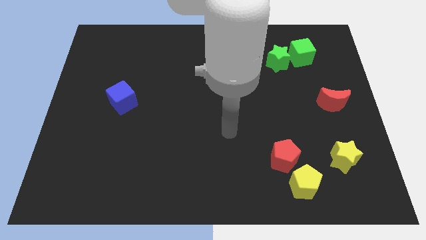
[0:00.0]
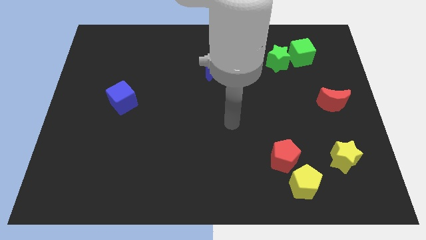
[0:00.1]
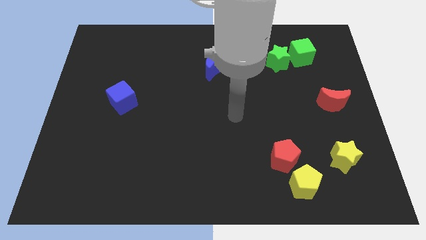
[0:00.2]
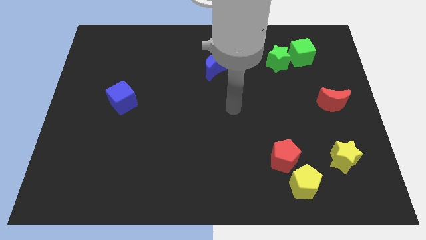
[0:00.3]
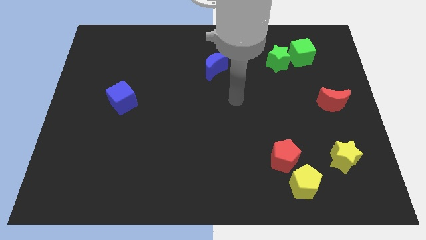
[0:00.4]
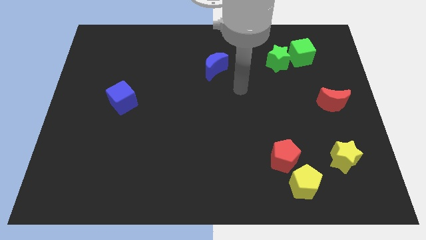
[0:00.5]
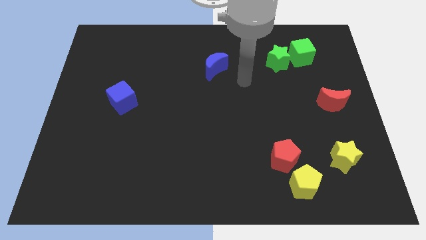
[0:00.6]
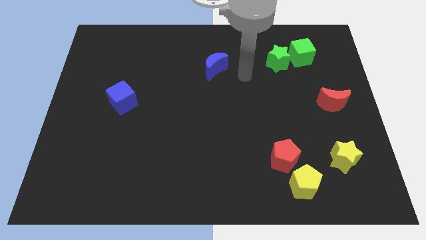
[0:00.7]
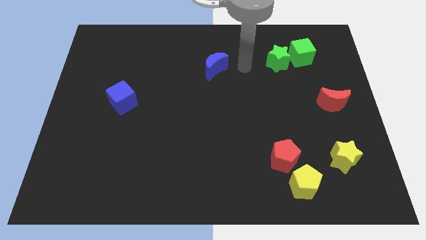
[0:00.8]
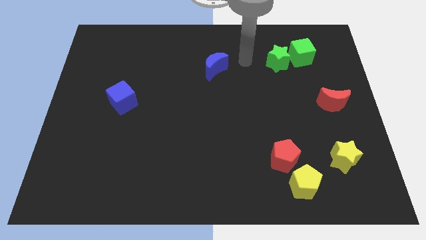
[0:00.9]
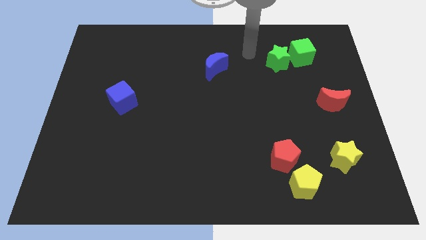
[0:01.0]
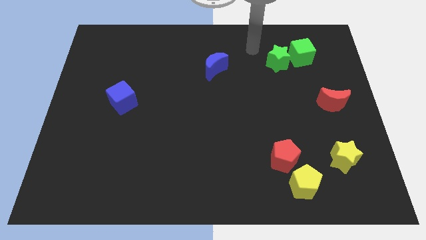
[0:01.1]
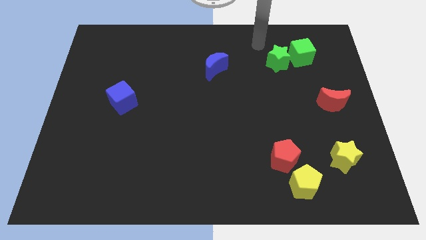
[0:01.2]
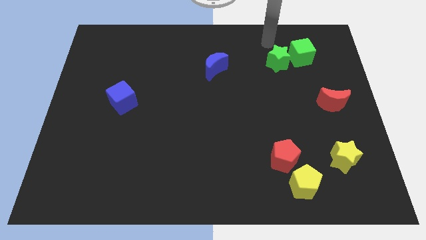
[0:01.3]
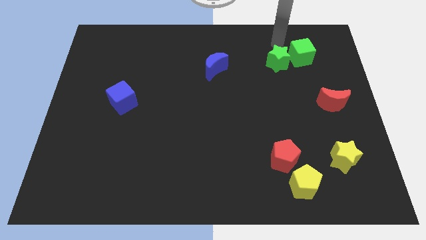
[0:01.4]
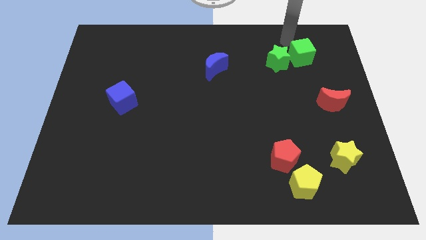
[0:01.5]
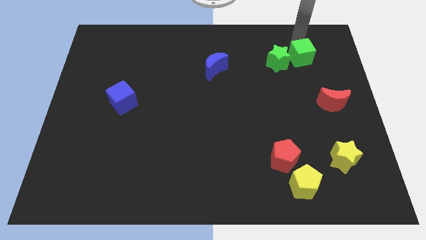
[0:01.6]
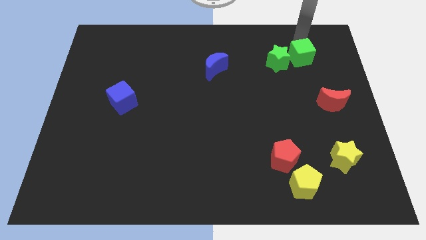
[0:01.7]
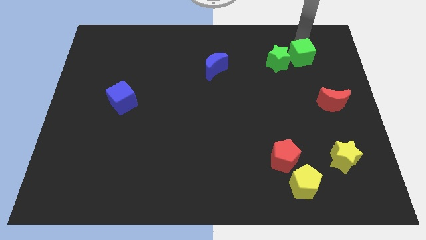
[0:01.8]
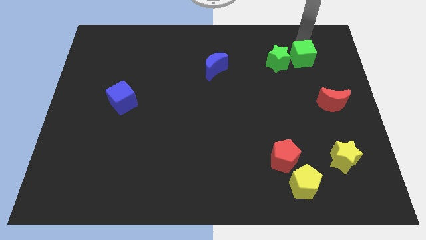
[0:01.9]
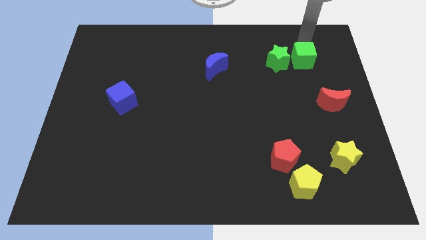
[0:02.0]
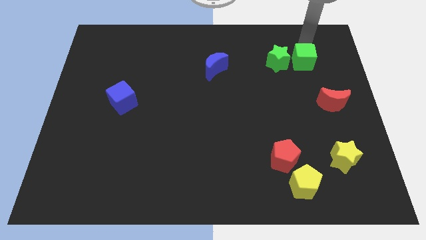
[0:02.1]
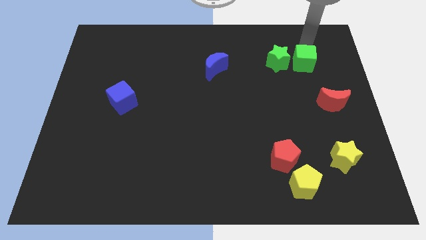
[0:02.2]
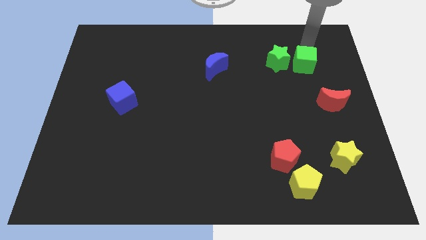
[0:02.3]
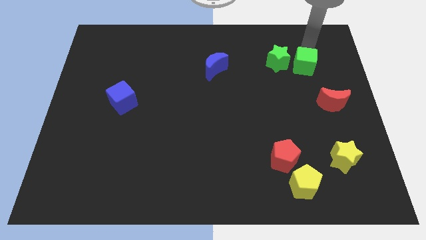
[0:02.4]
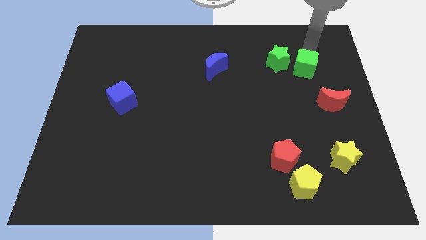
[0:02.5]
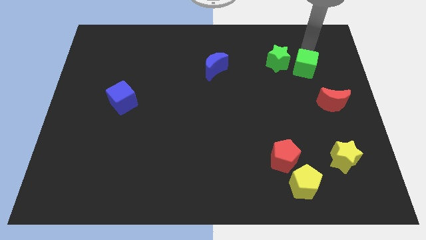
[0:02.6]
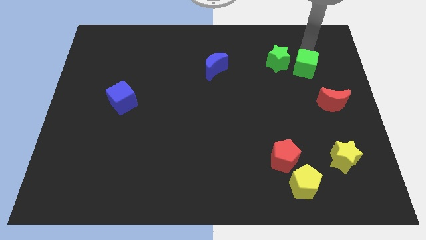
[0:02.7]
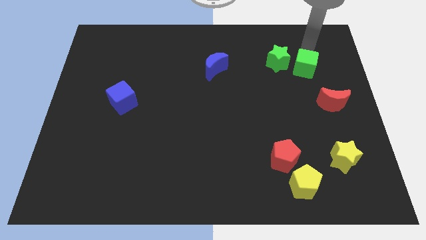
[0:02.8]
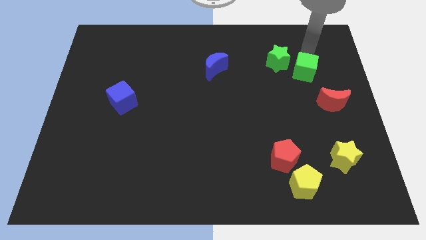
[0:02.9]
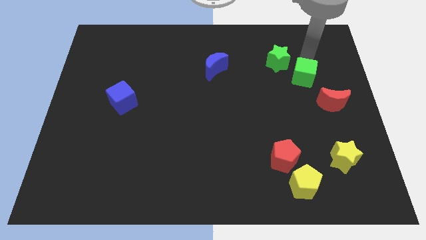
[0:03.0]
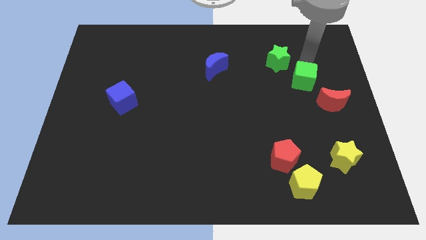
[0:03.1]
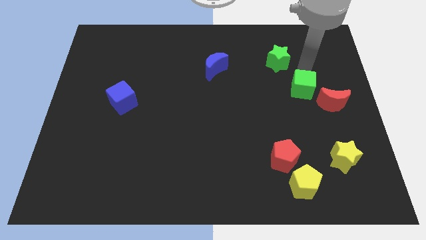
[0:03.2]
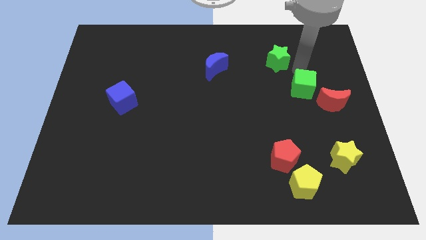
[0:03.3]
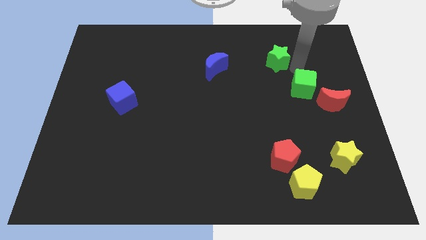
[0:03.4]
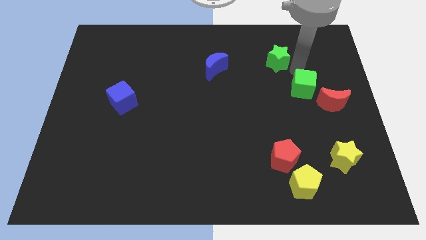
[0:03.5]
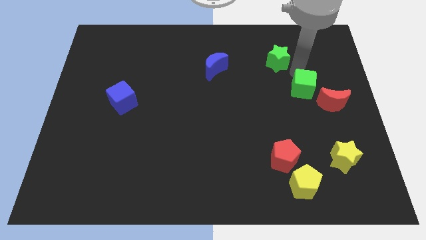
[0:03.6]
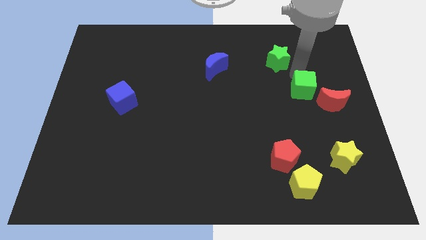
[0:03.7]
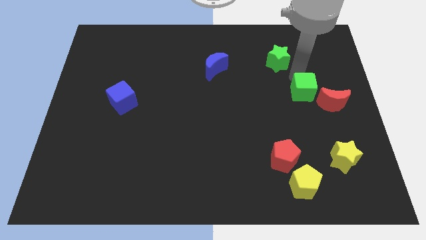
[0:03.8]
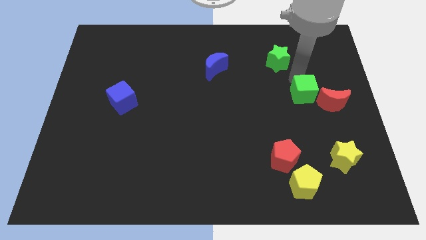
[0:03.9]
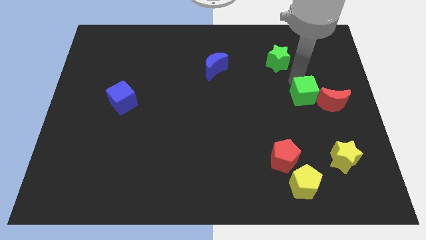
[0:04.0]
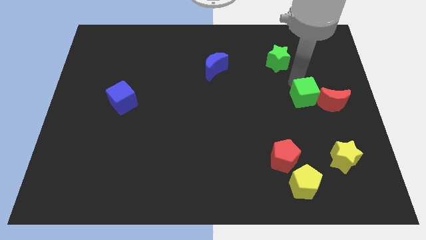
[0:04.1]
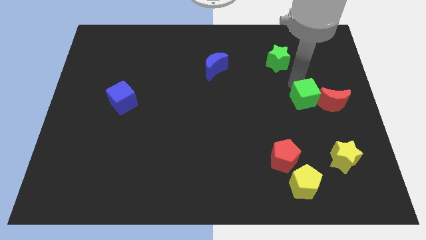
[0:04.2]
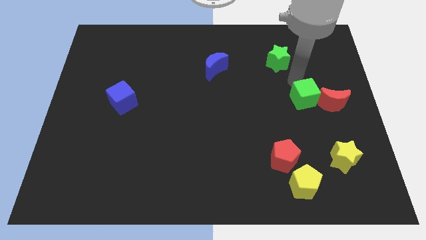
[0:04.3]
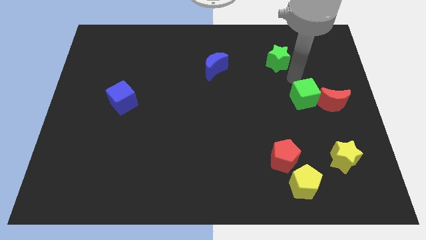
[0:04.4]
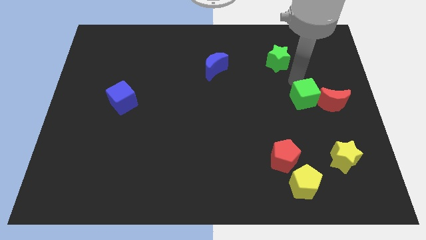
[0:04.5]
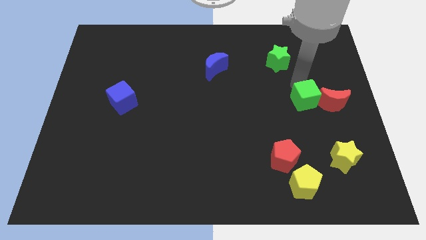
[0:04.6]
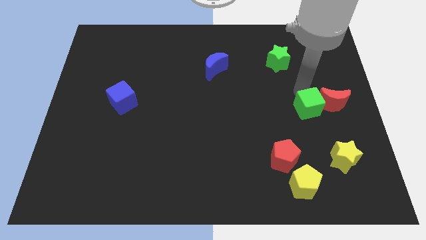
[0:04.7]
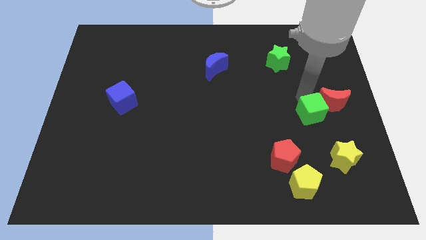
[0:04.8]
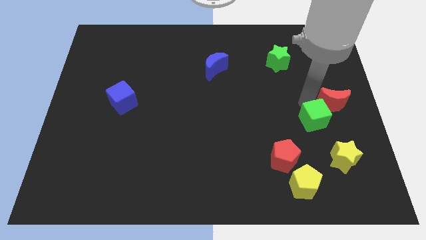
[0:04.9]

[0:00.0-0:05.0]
move the green cube down

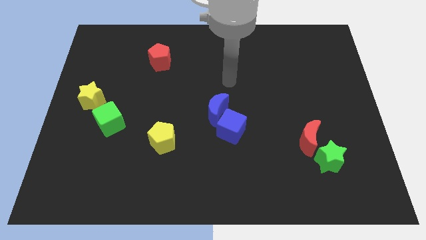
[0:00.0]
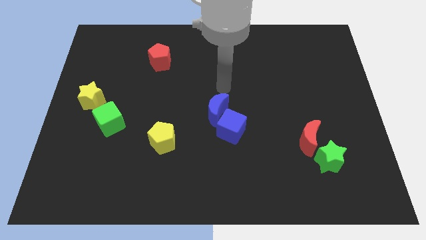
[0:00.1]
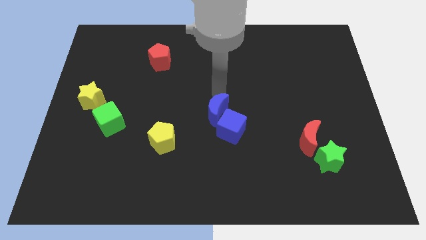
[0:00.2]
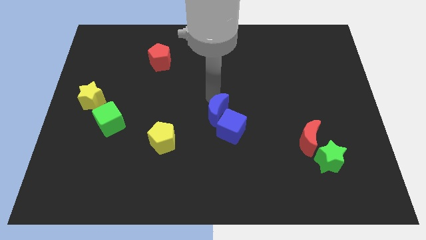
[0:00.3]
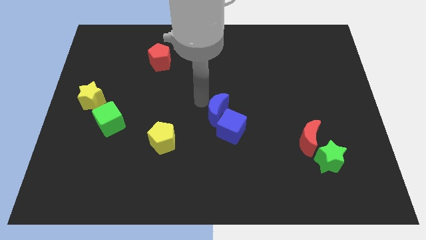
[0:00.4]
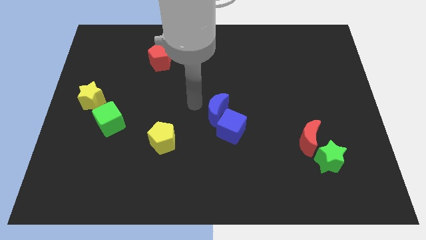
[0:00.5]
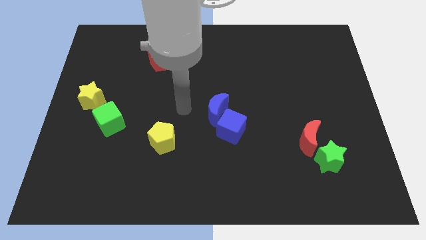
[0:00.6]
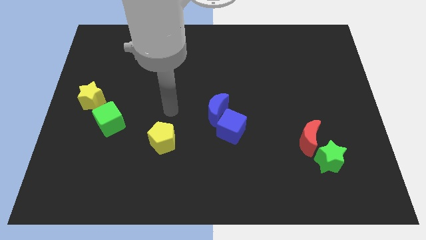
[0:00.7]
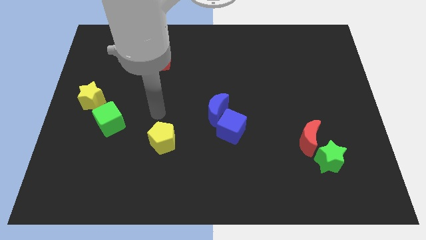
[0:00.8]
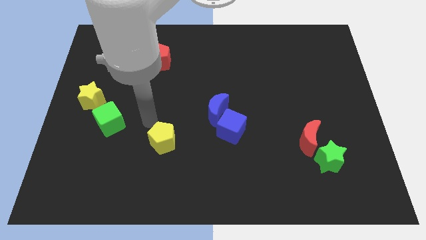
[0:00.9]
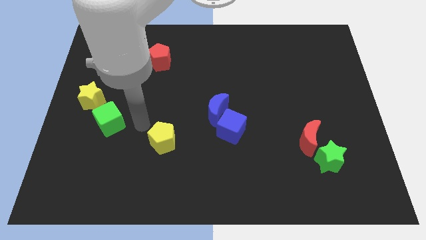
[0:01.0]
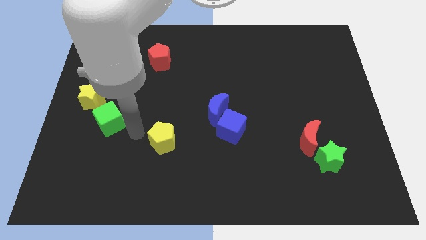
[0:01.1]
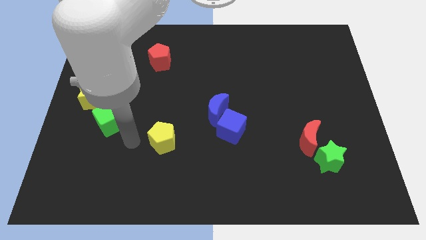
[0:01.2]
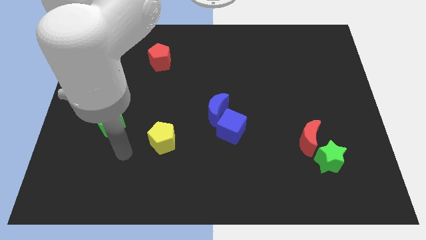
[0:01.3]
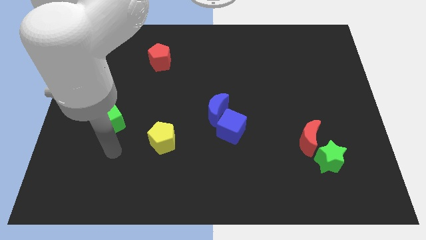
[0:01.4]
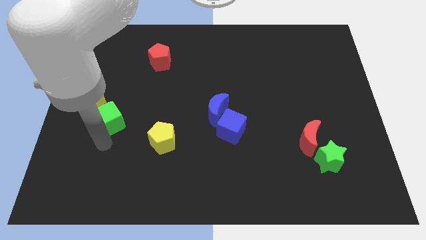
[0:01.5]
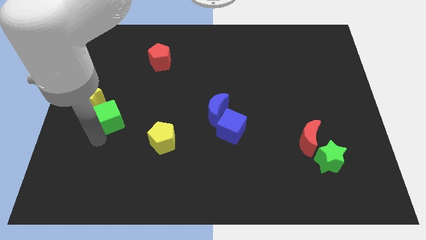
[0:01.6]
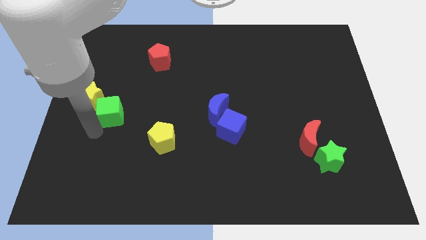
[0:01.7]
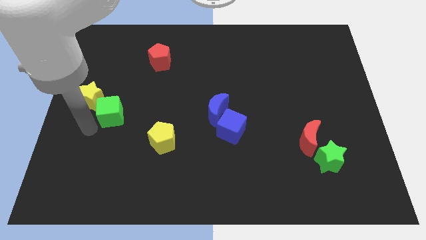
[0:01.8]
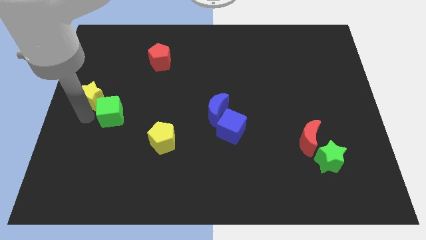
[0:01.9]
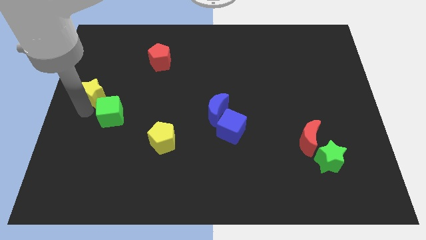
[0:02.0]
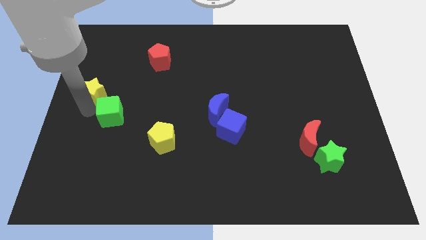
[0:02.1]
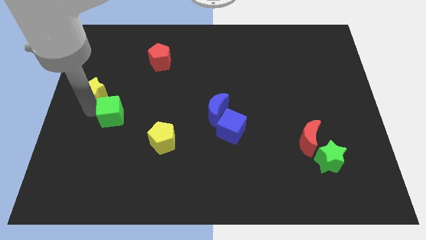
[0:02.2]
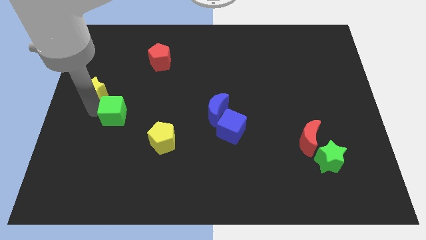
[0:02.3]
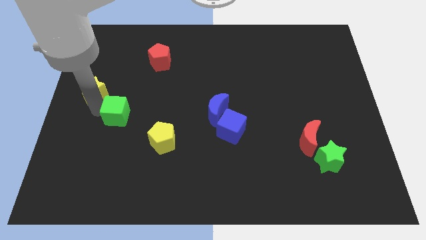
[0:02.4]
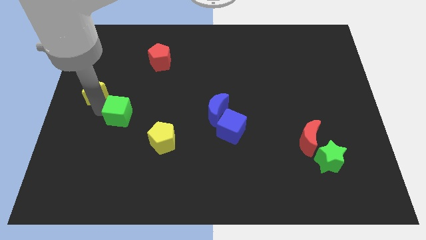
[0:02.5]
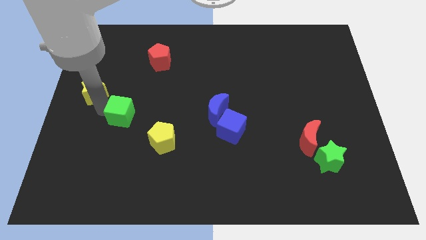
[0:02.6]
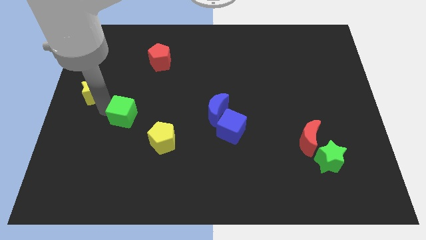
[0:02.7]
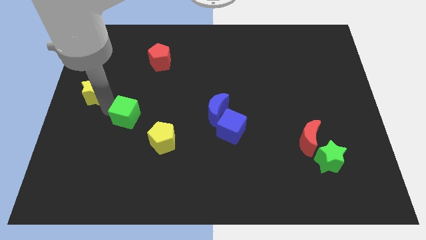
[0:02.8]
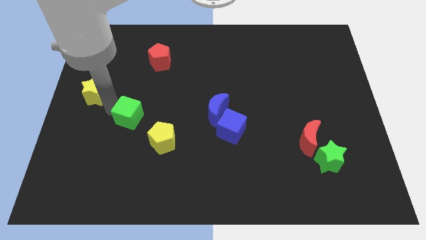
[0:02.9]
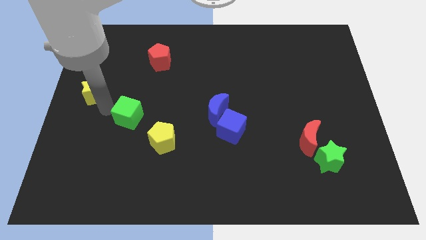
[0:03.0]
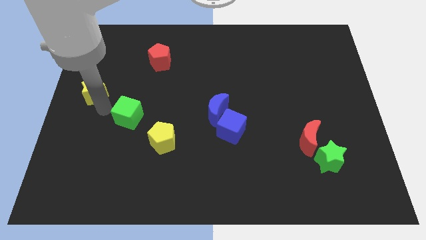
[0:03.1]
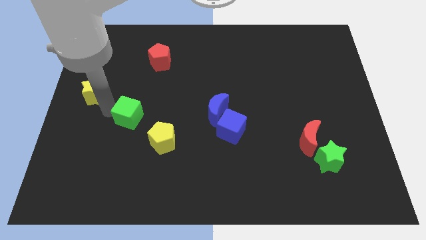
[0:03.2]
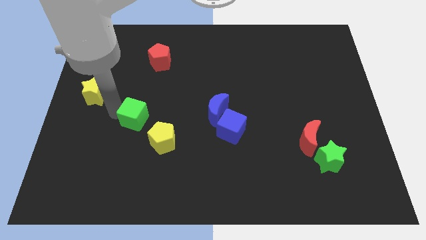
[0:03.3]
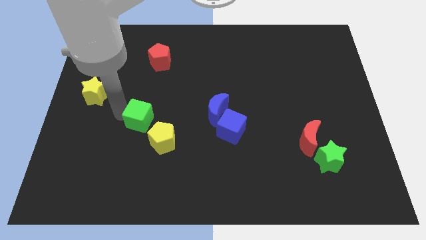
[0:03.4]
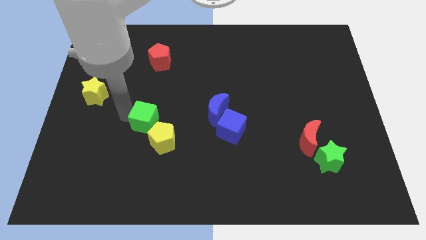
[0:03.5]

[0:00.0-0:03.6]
slightly slide the green cube right
